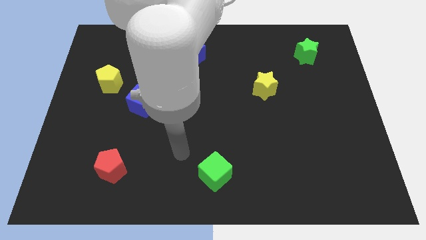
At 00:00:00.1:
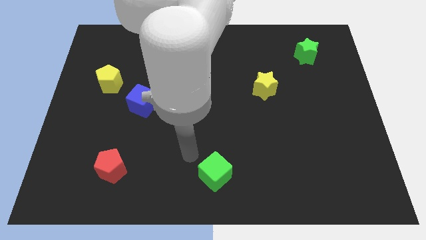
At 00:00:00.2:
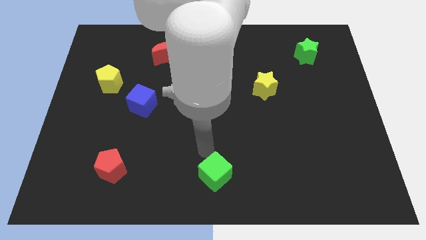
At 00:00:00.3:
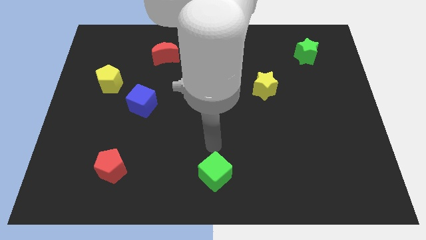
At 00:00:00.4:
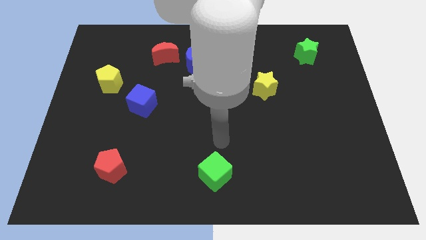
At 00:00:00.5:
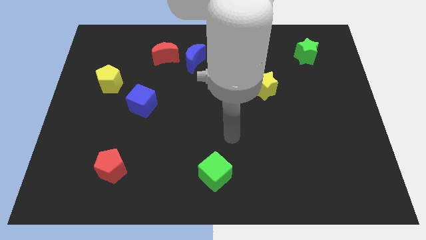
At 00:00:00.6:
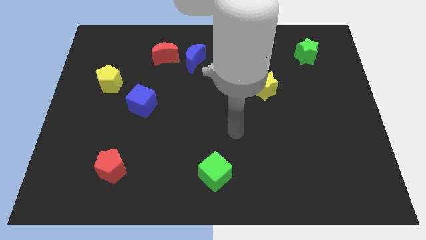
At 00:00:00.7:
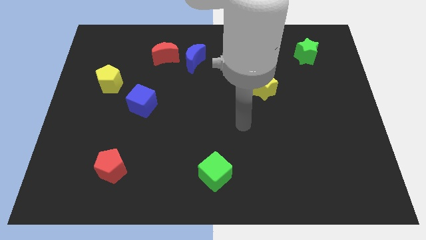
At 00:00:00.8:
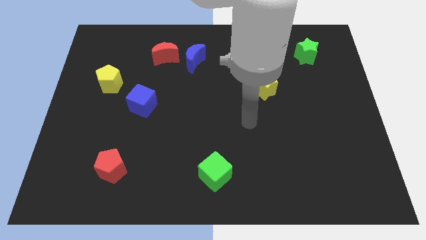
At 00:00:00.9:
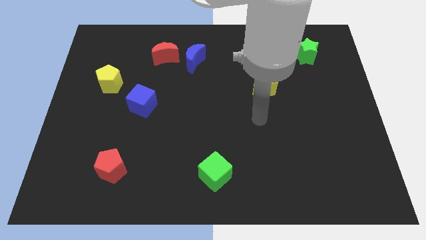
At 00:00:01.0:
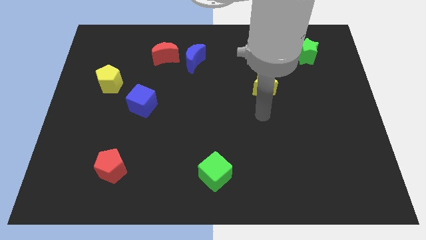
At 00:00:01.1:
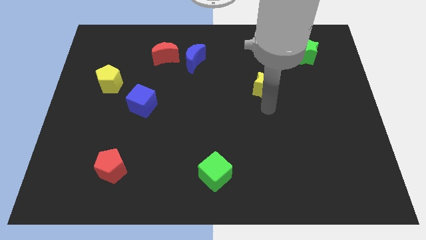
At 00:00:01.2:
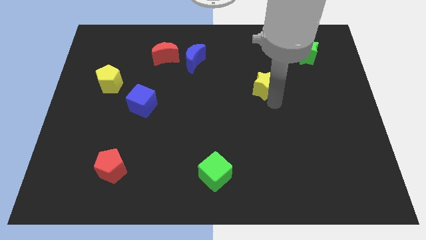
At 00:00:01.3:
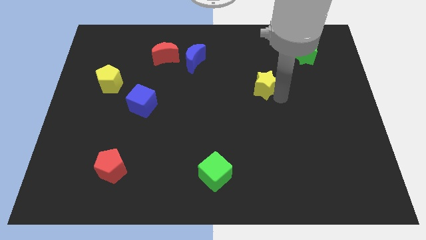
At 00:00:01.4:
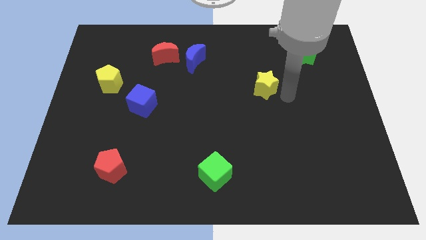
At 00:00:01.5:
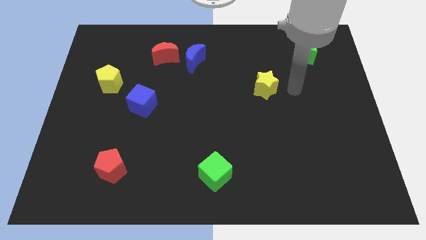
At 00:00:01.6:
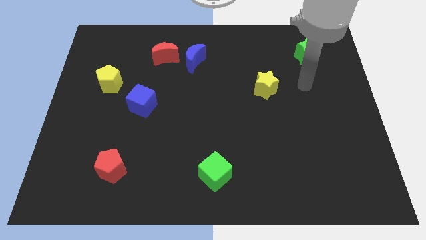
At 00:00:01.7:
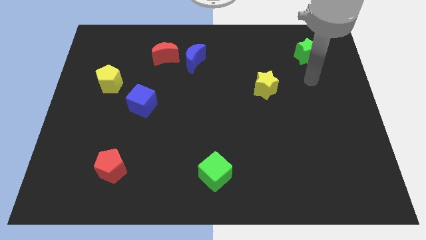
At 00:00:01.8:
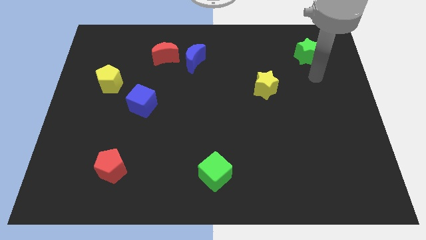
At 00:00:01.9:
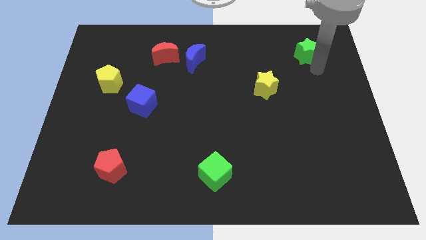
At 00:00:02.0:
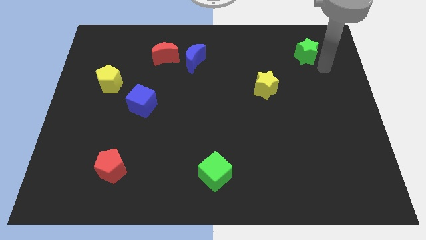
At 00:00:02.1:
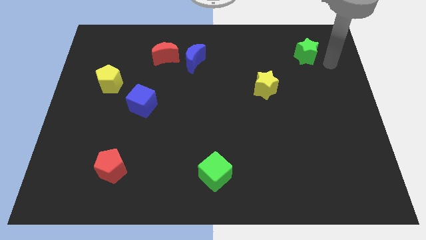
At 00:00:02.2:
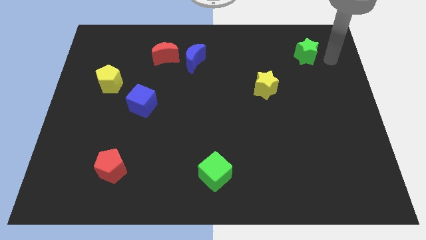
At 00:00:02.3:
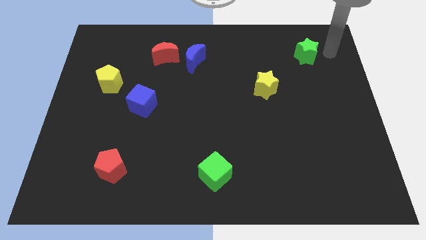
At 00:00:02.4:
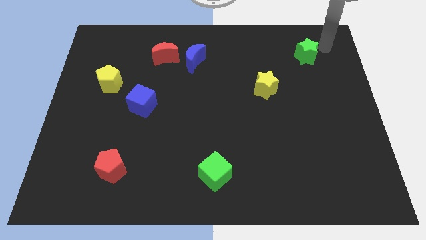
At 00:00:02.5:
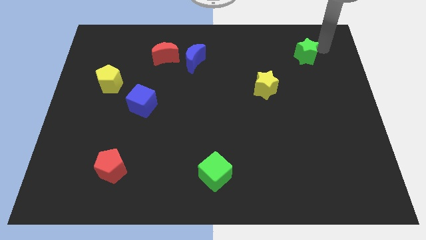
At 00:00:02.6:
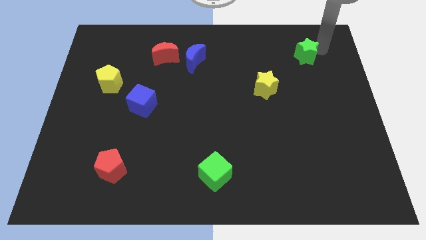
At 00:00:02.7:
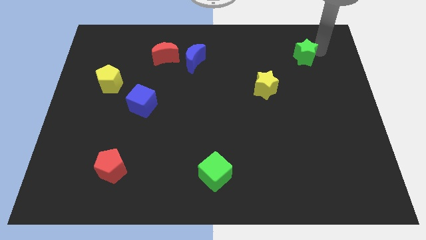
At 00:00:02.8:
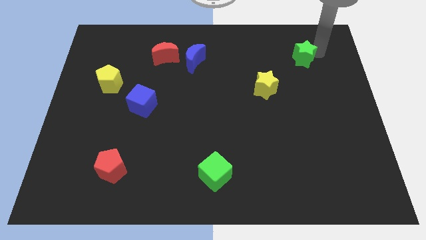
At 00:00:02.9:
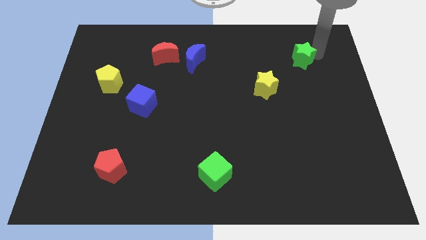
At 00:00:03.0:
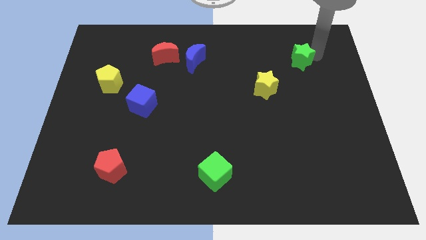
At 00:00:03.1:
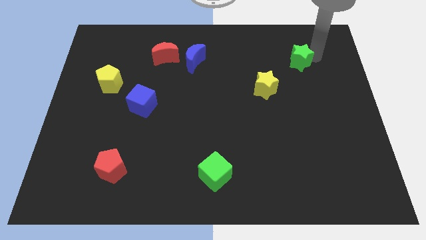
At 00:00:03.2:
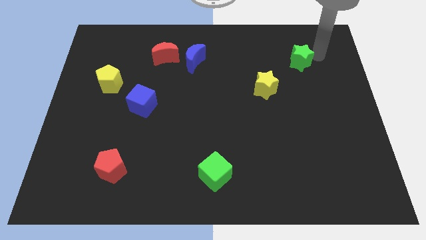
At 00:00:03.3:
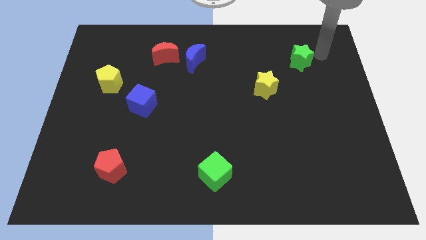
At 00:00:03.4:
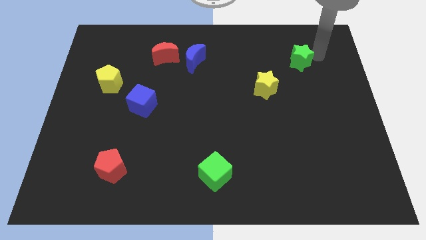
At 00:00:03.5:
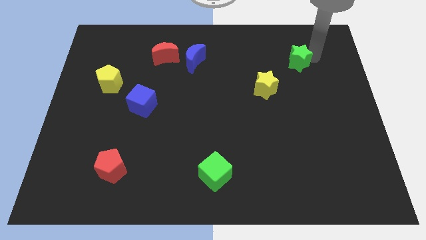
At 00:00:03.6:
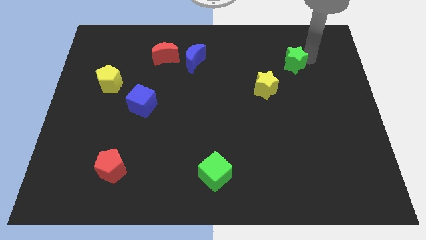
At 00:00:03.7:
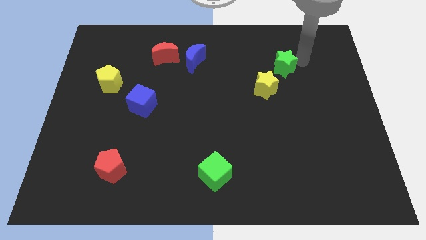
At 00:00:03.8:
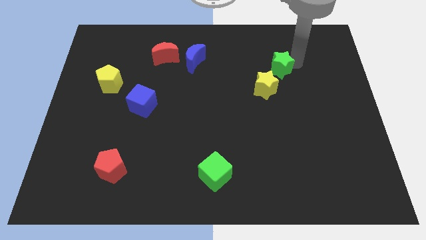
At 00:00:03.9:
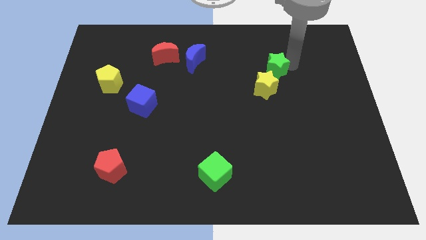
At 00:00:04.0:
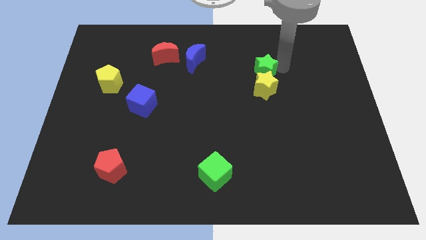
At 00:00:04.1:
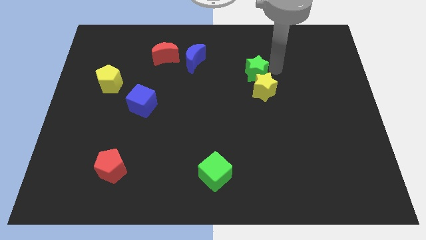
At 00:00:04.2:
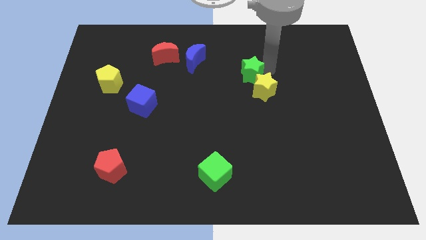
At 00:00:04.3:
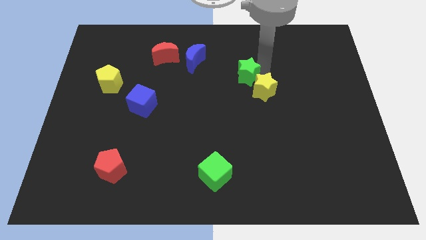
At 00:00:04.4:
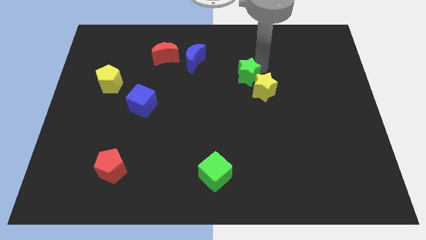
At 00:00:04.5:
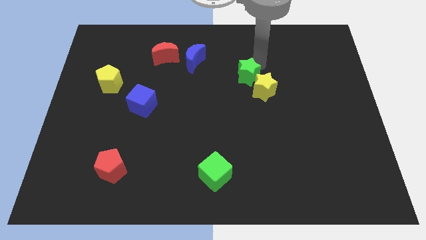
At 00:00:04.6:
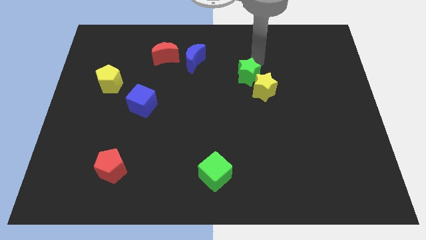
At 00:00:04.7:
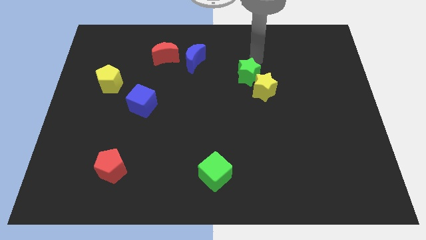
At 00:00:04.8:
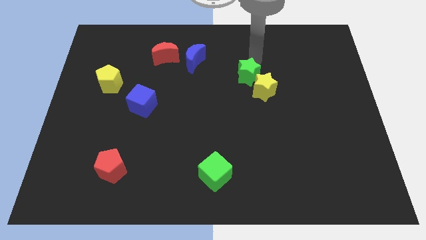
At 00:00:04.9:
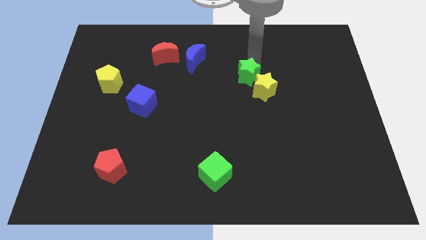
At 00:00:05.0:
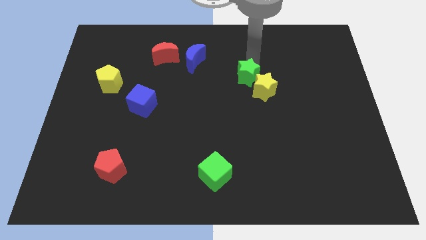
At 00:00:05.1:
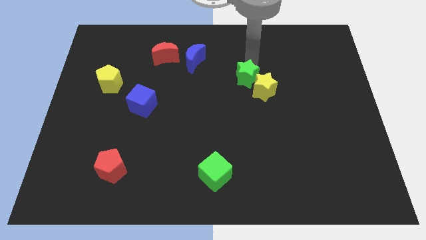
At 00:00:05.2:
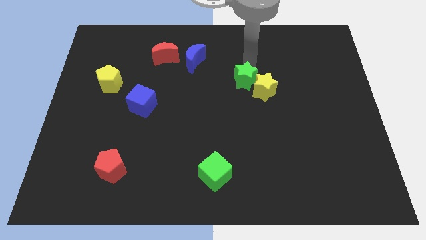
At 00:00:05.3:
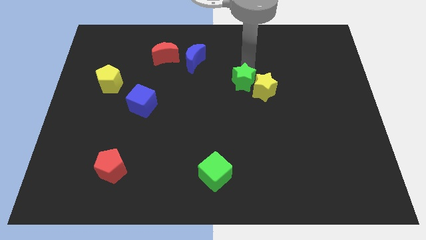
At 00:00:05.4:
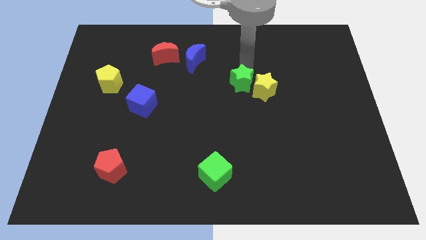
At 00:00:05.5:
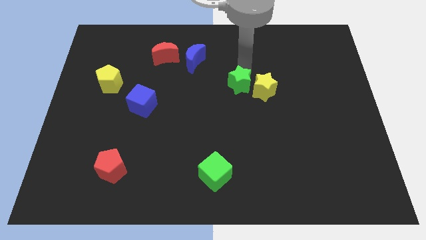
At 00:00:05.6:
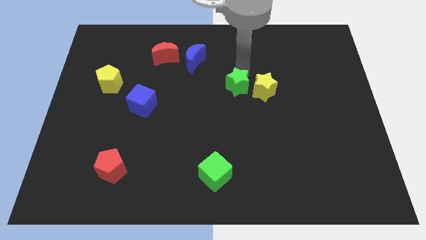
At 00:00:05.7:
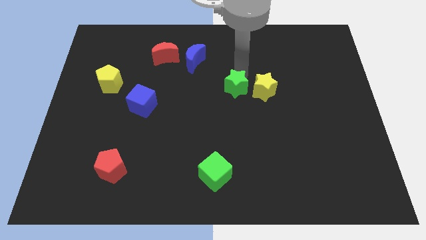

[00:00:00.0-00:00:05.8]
move the green star downwards and to the left

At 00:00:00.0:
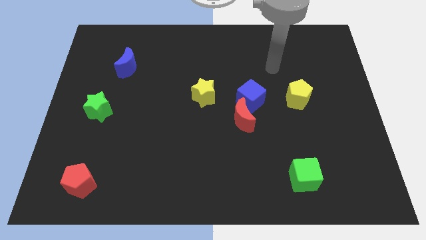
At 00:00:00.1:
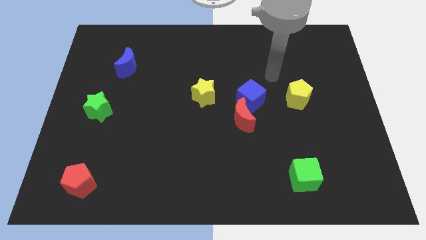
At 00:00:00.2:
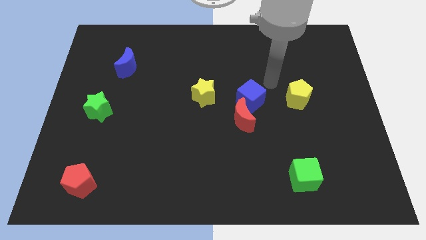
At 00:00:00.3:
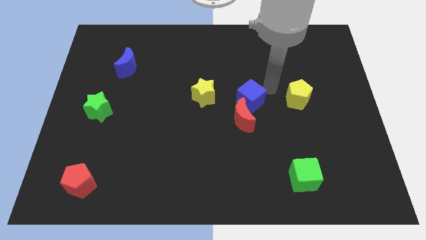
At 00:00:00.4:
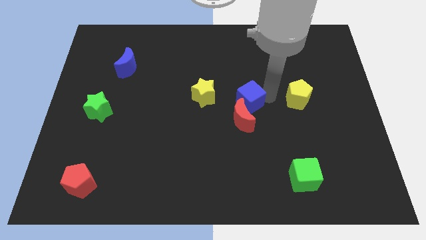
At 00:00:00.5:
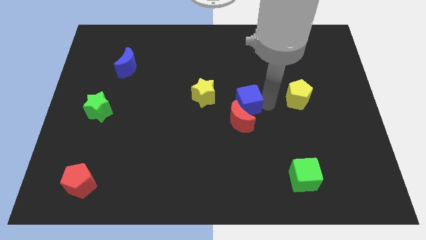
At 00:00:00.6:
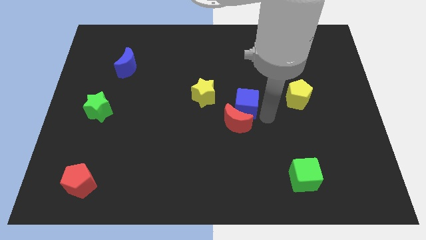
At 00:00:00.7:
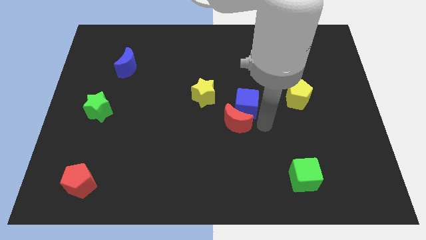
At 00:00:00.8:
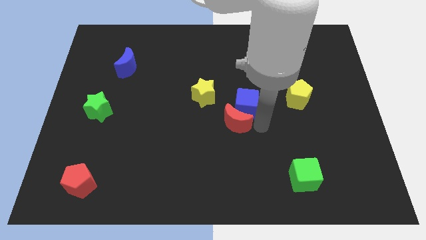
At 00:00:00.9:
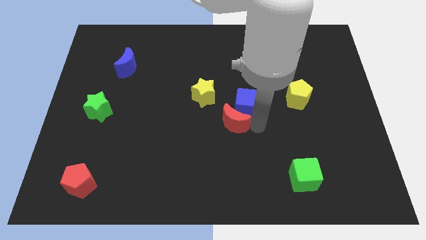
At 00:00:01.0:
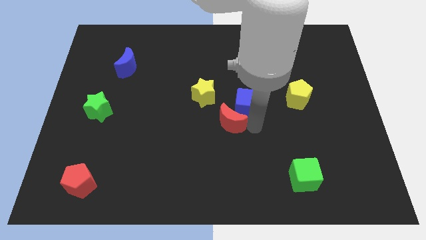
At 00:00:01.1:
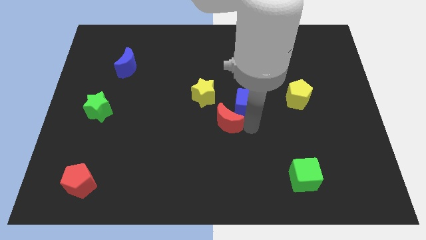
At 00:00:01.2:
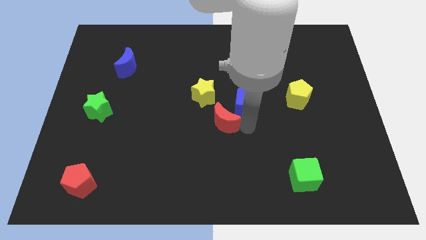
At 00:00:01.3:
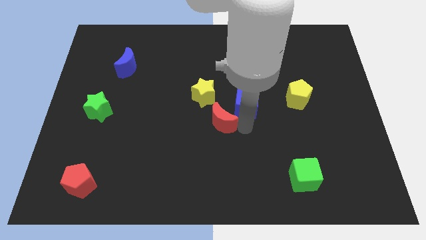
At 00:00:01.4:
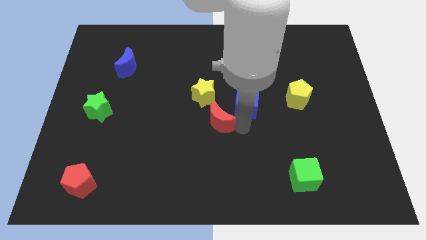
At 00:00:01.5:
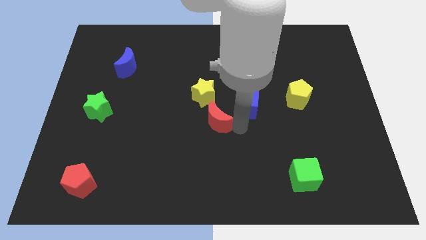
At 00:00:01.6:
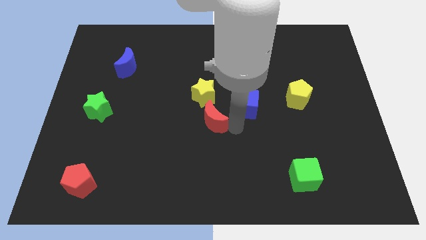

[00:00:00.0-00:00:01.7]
push the red moon a little left

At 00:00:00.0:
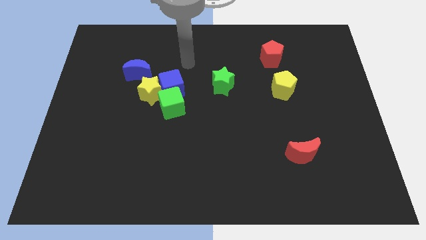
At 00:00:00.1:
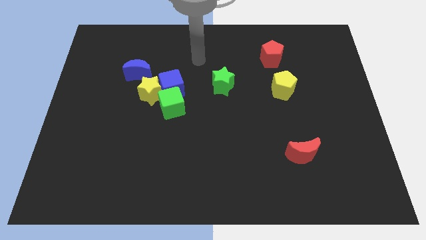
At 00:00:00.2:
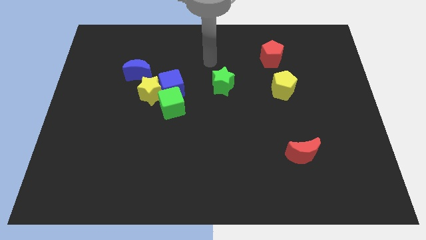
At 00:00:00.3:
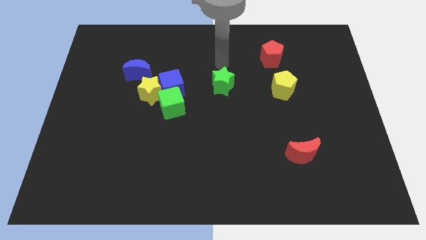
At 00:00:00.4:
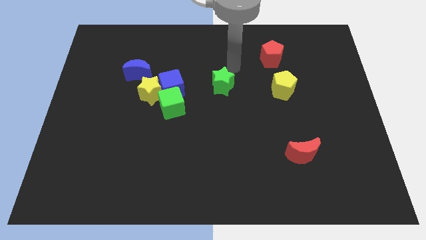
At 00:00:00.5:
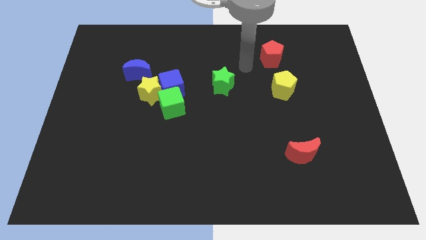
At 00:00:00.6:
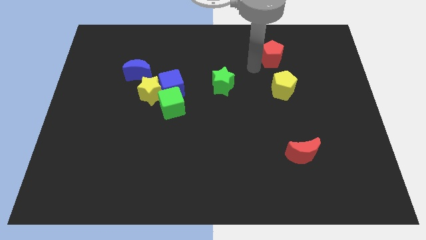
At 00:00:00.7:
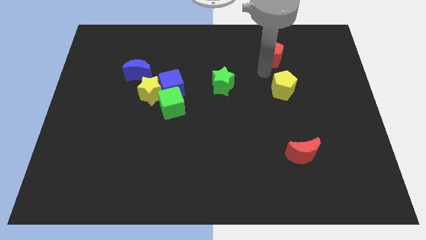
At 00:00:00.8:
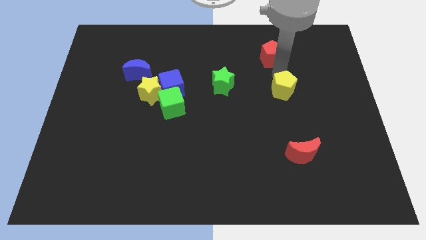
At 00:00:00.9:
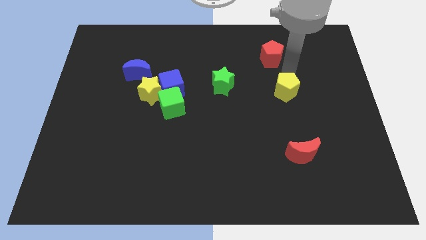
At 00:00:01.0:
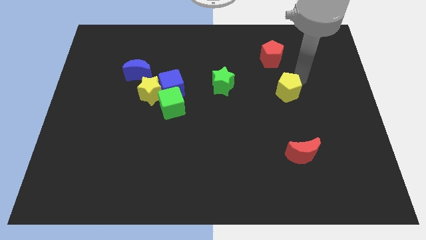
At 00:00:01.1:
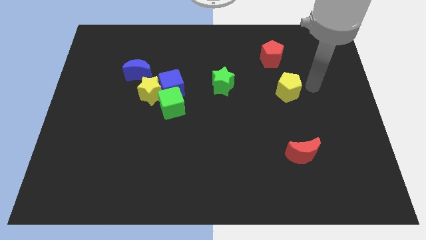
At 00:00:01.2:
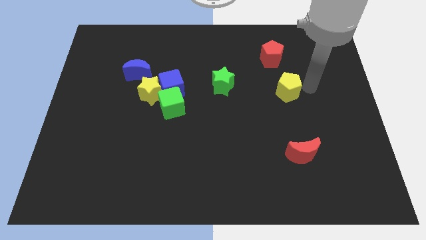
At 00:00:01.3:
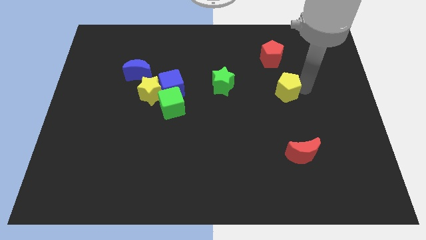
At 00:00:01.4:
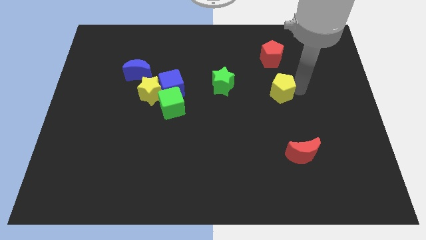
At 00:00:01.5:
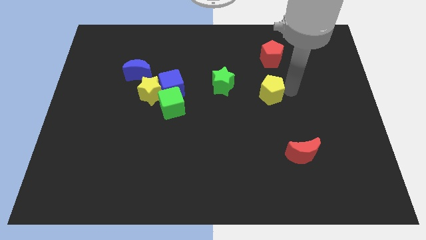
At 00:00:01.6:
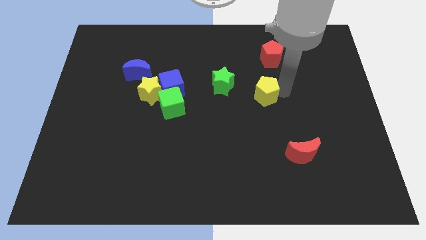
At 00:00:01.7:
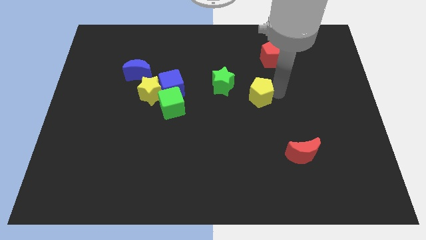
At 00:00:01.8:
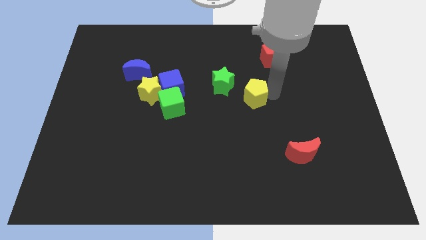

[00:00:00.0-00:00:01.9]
move the yellow pentagon to the left a bit
